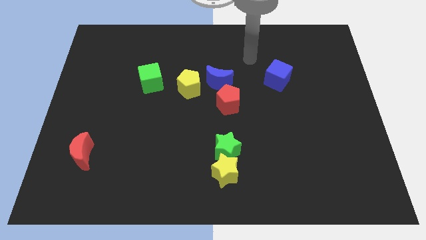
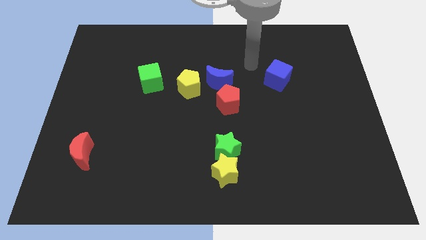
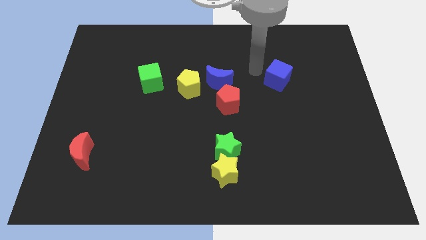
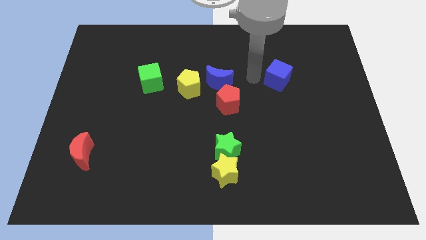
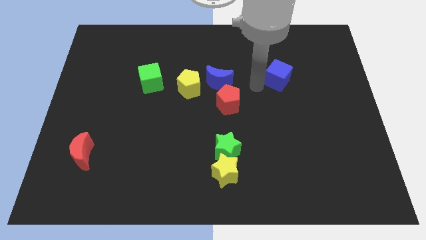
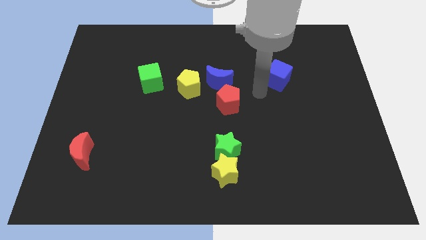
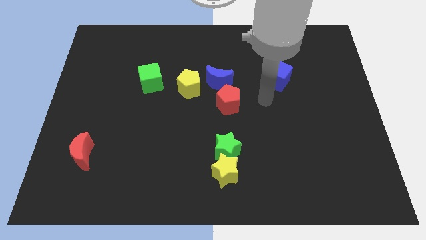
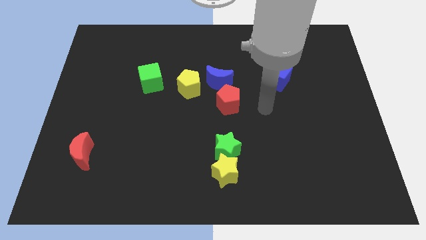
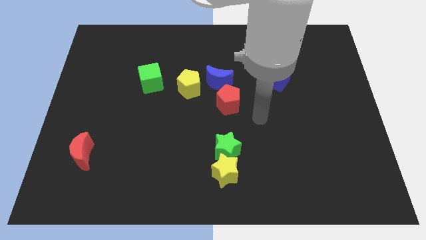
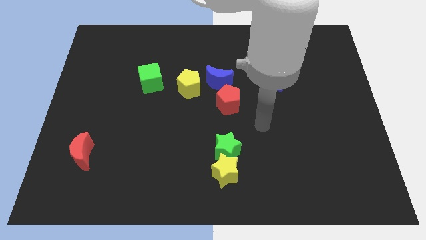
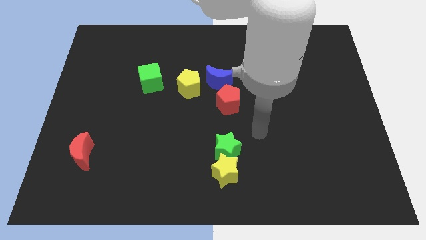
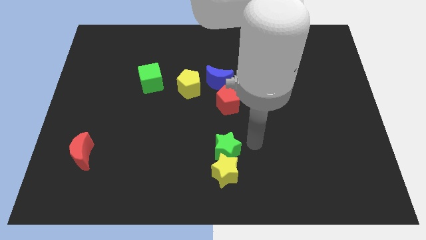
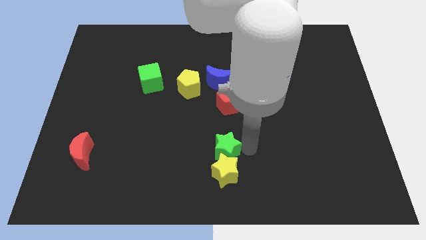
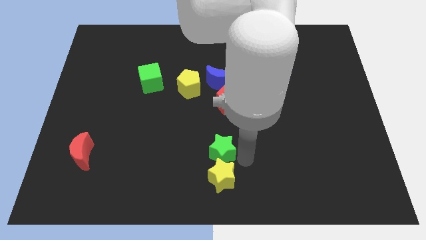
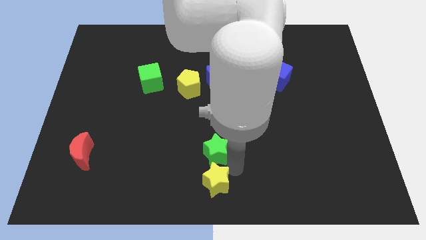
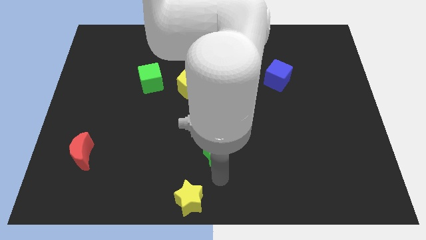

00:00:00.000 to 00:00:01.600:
move the green star away from the yellow star

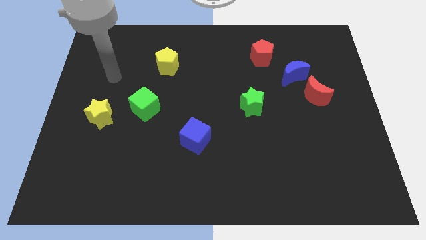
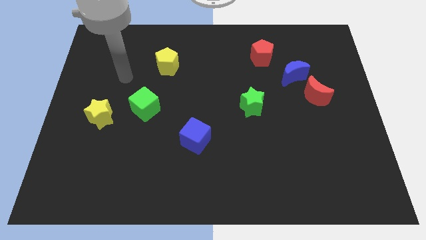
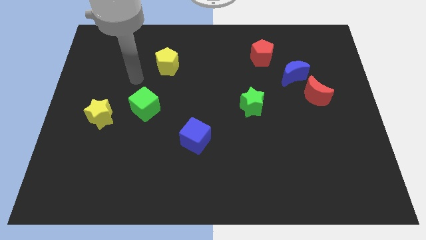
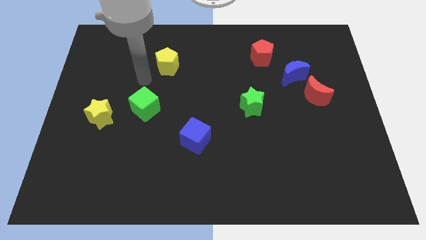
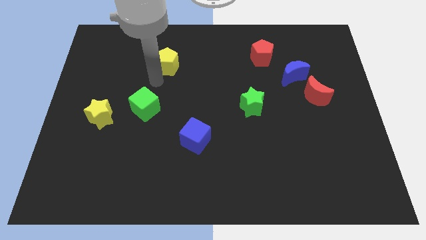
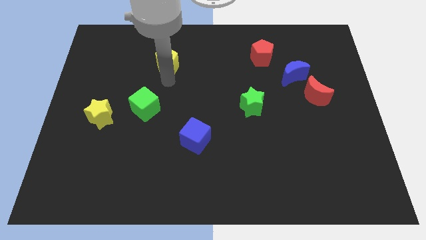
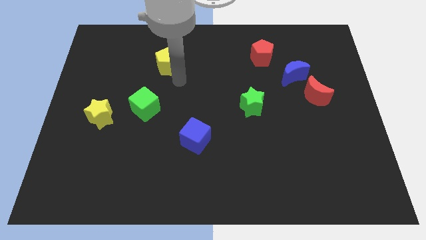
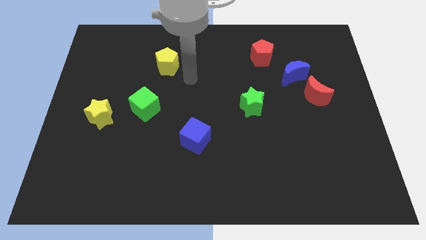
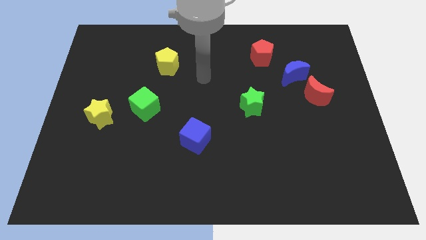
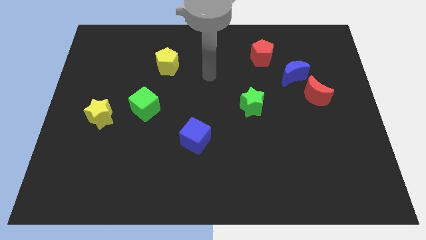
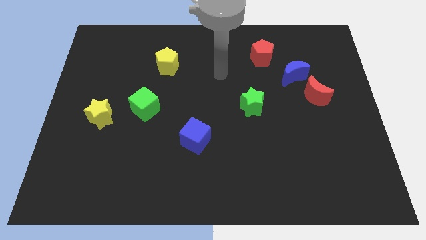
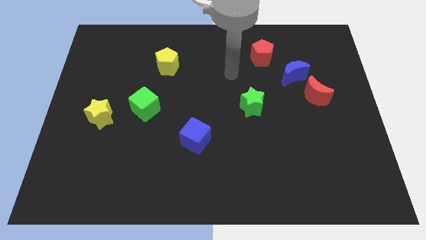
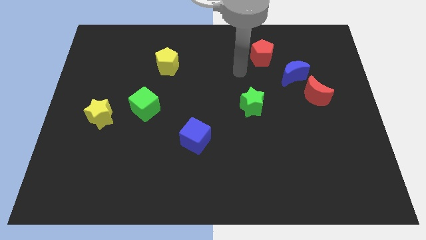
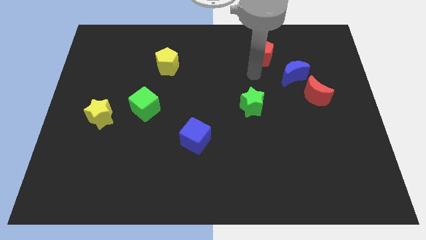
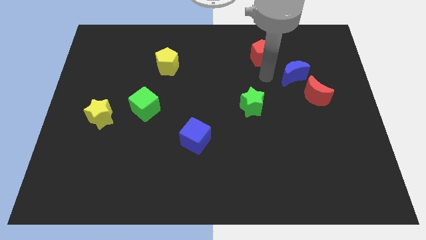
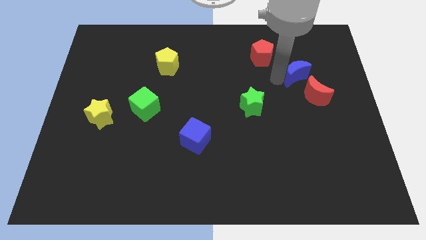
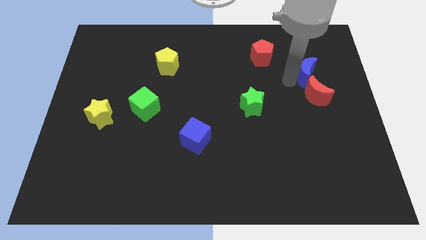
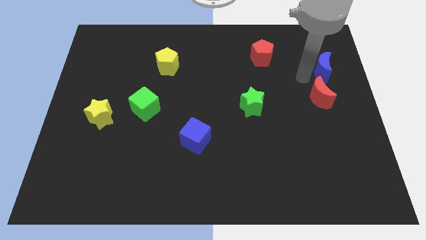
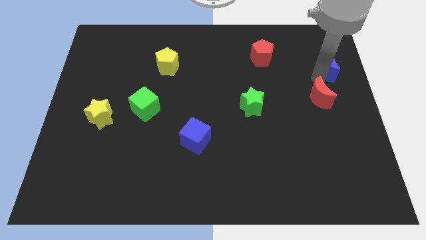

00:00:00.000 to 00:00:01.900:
separate the red moon from the blue moon

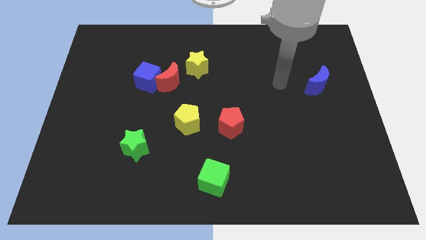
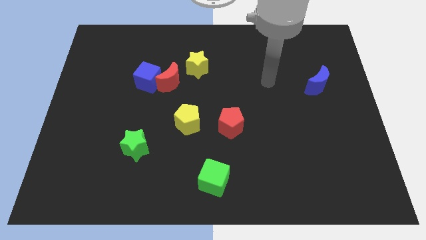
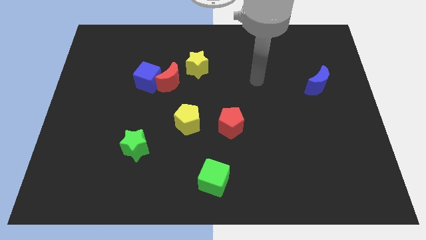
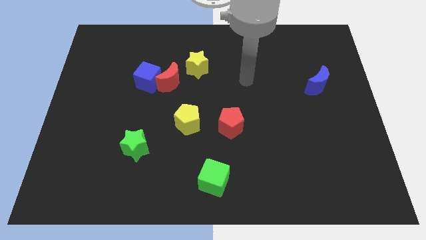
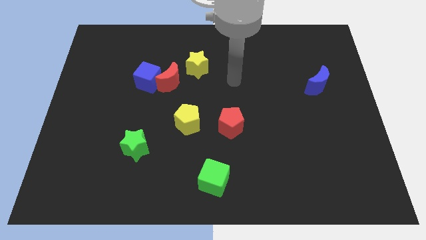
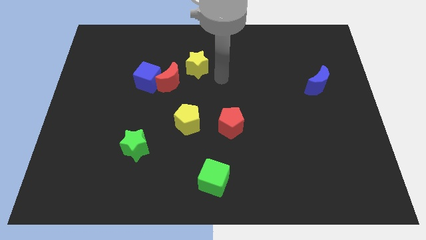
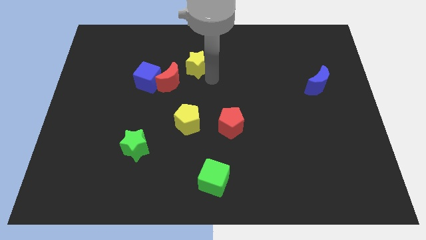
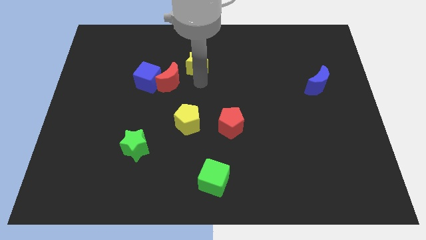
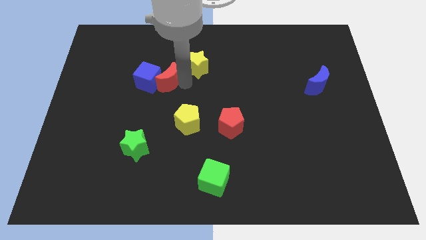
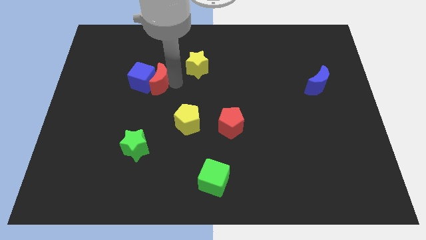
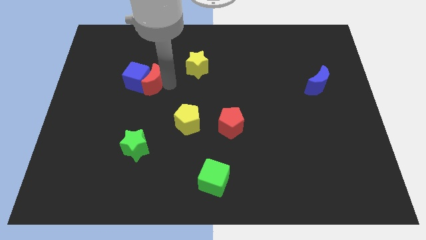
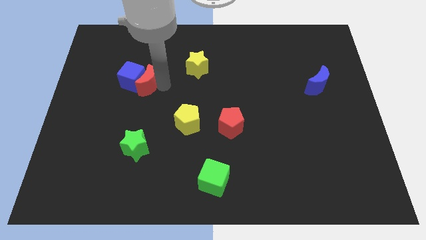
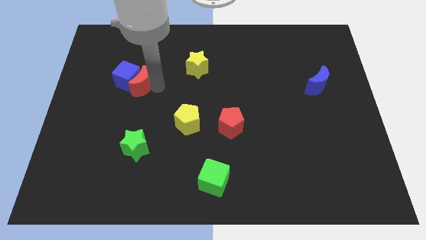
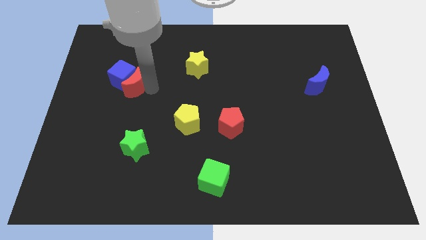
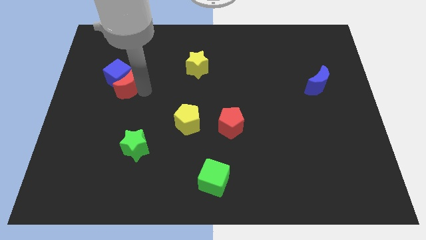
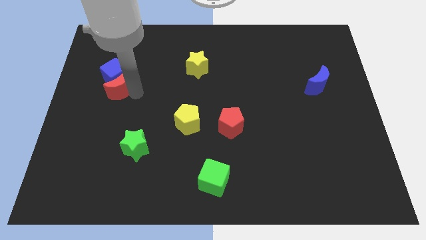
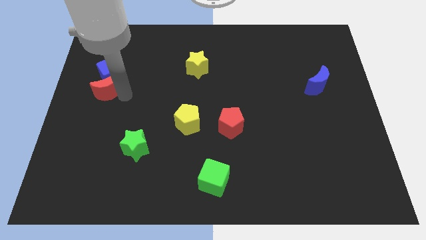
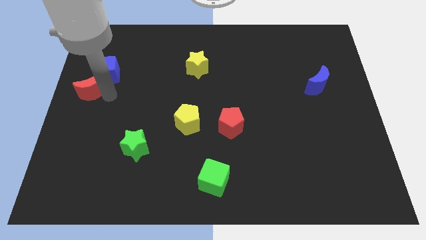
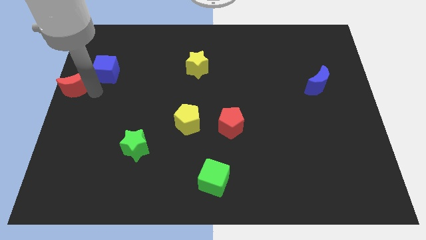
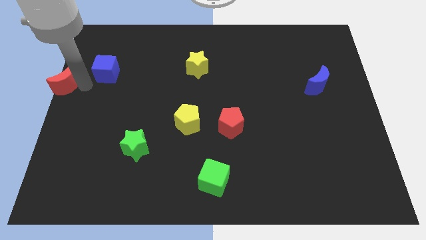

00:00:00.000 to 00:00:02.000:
move the blue cube away from the red moon

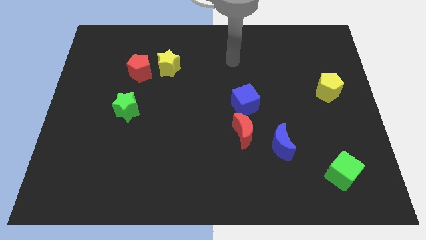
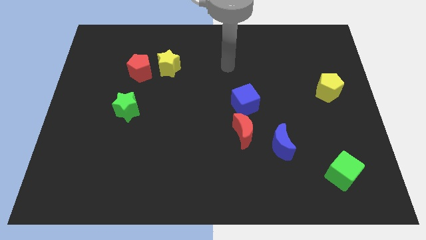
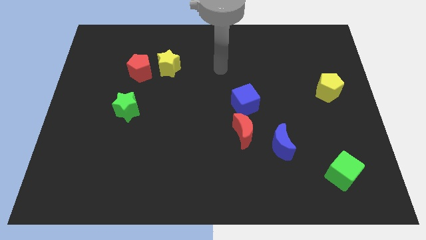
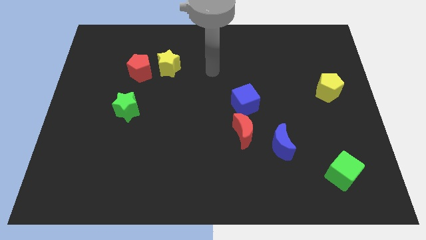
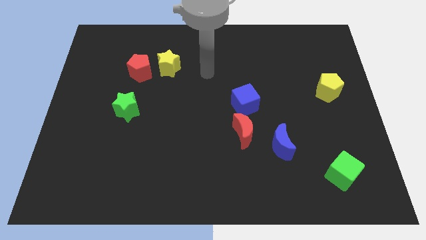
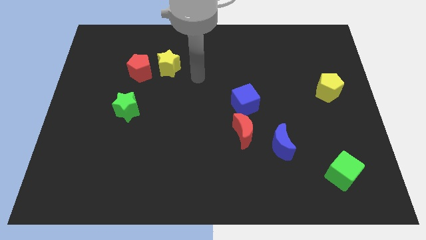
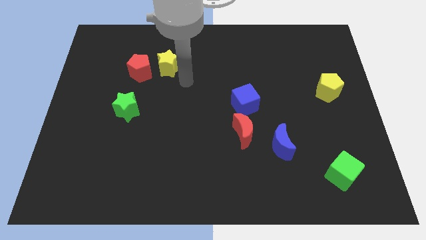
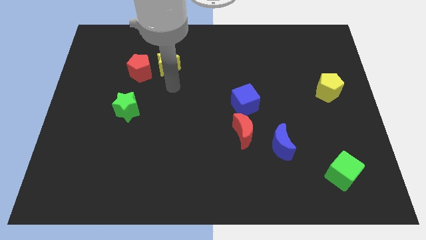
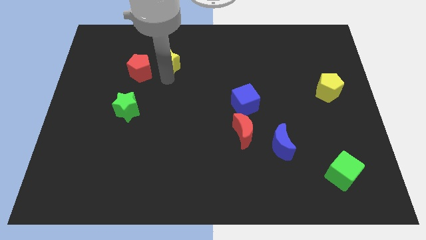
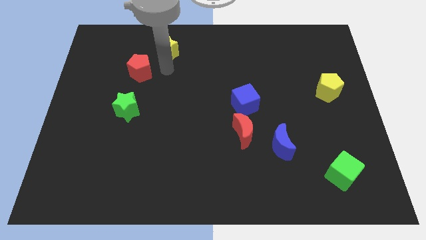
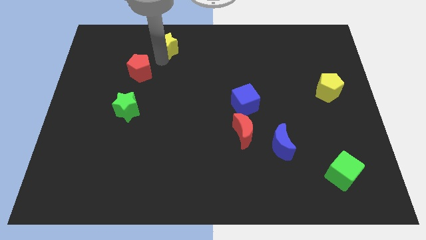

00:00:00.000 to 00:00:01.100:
pull the red pentagon apart from the yellow star

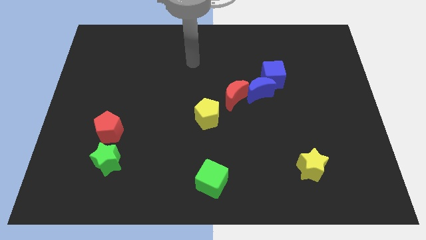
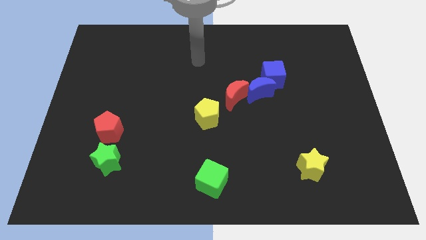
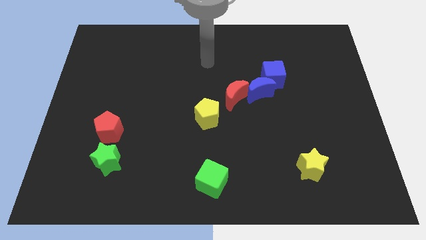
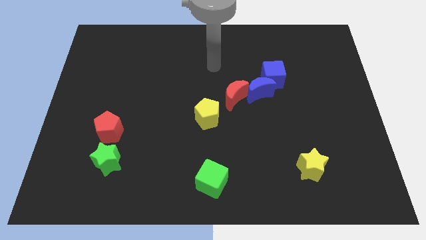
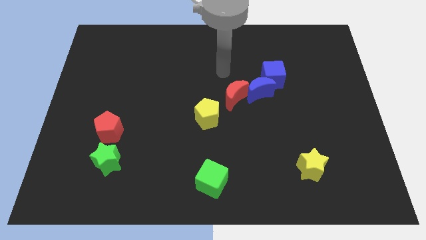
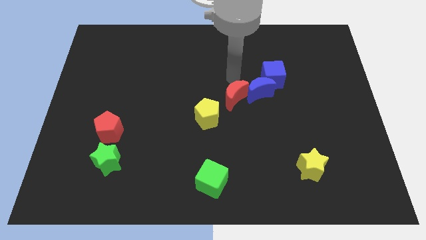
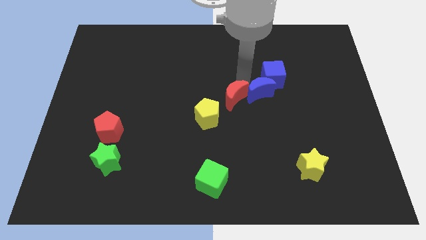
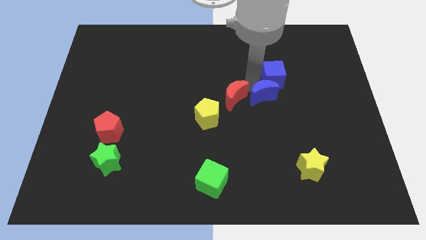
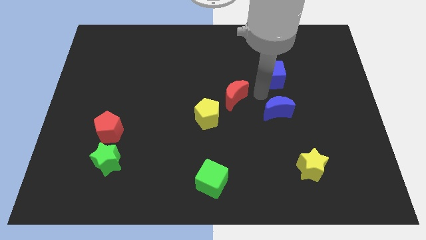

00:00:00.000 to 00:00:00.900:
pull the blue cube apart from the blue moon

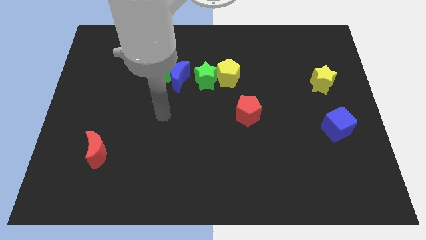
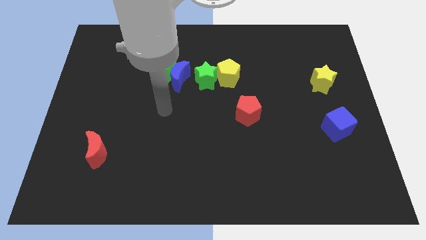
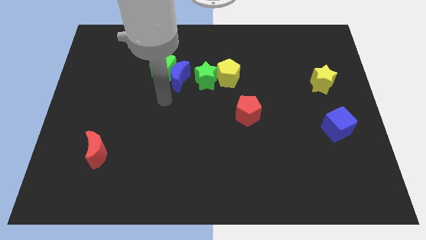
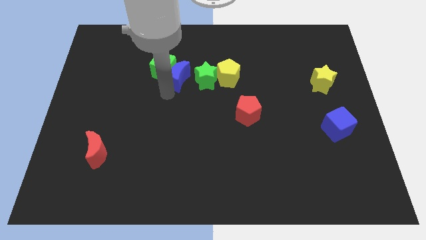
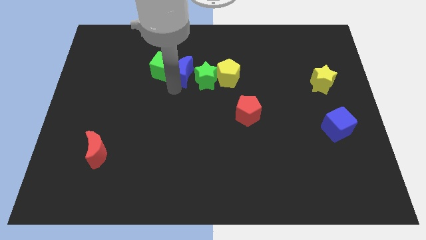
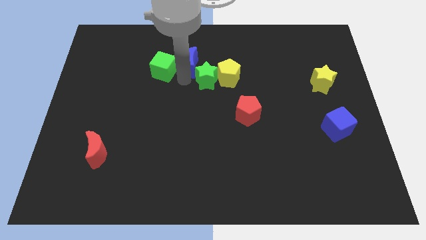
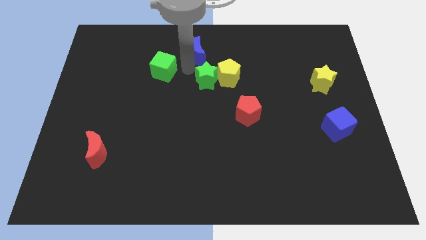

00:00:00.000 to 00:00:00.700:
move the green cube away from the blue moon

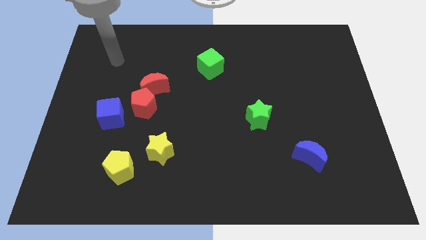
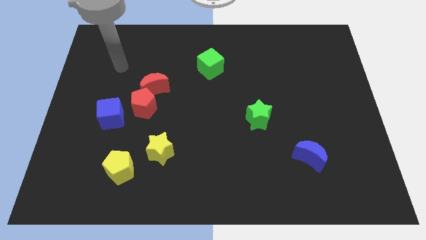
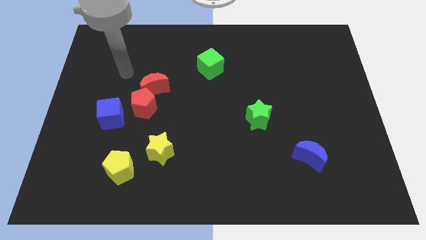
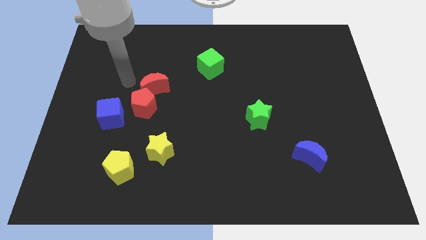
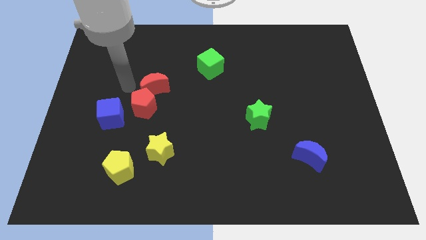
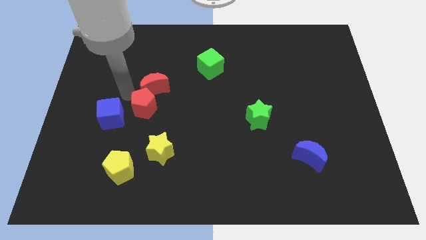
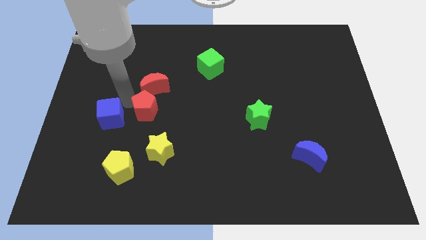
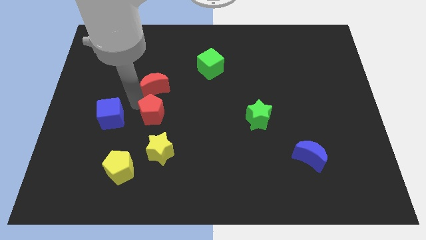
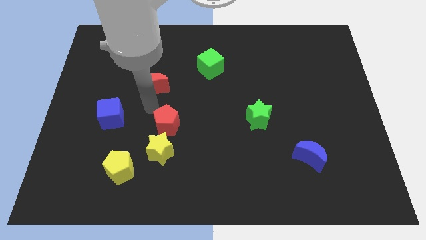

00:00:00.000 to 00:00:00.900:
pull the red moon apart from the red pentagon

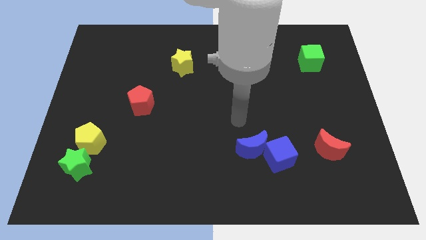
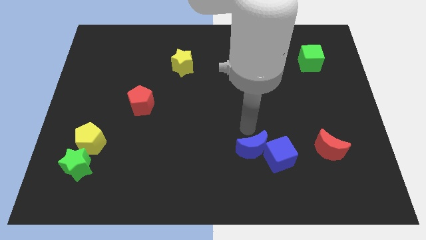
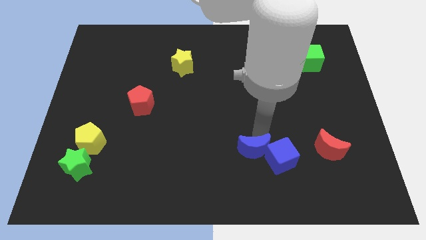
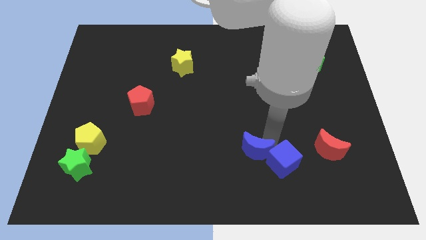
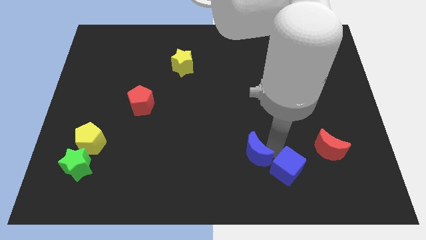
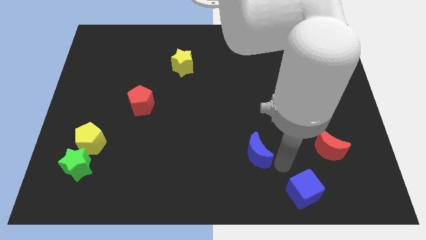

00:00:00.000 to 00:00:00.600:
pull the blue moon apart from the blue cube
